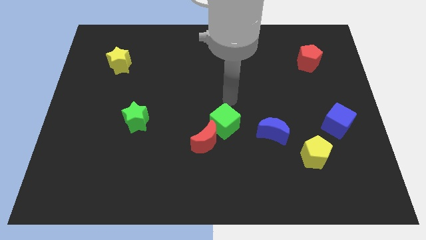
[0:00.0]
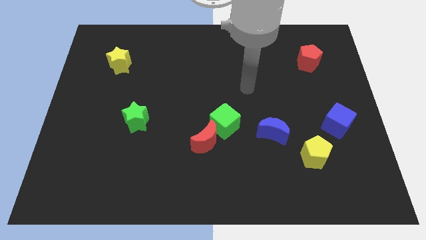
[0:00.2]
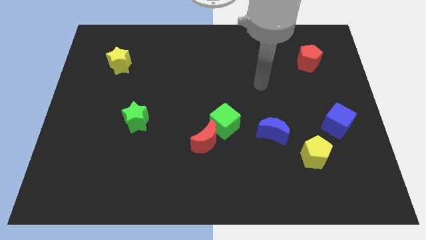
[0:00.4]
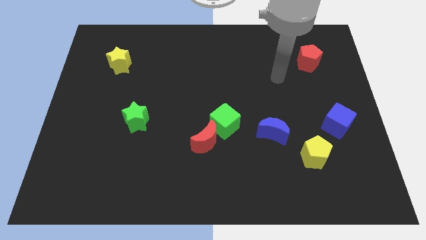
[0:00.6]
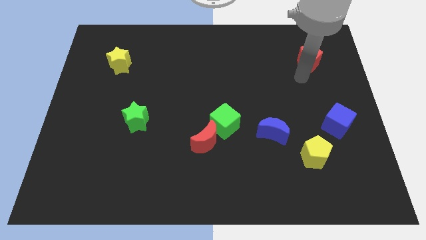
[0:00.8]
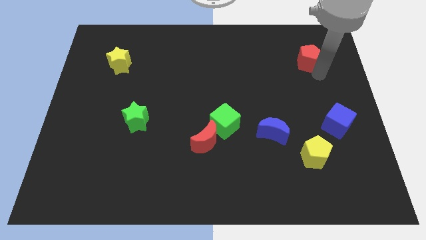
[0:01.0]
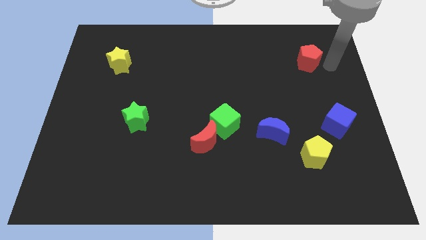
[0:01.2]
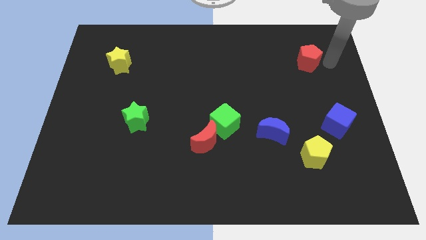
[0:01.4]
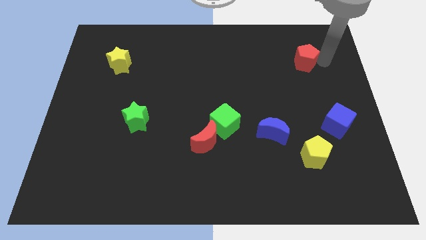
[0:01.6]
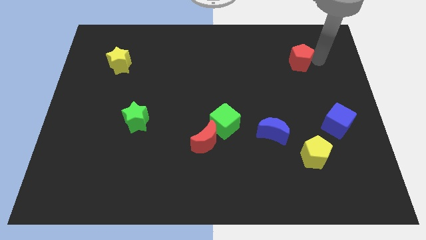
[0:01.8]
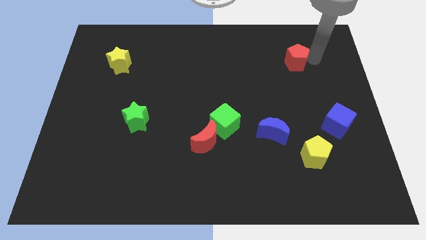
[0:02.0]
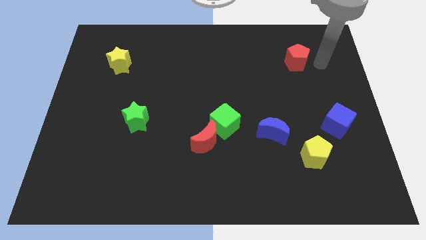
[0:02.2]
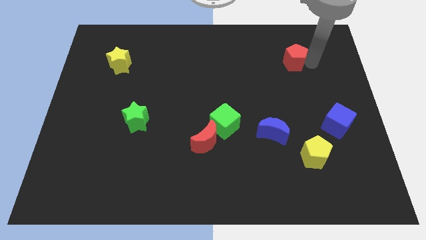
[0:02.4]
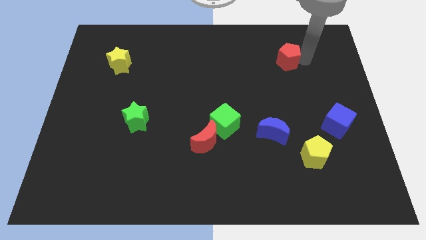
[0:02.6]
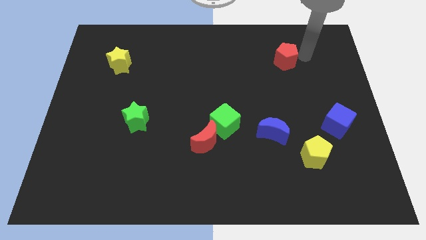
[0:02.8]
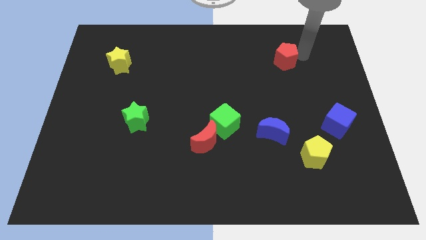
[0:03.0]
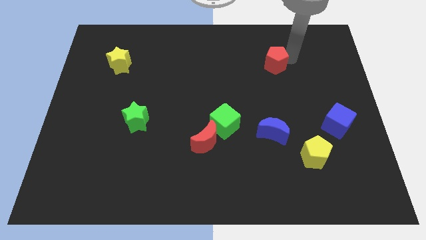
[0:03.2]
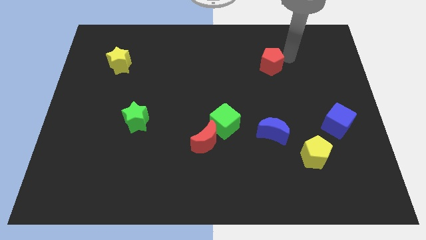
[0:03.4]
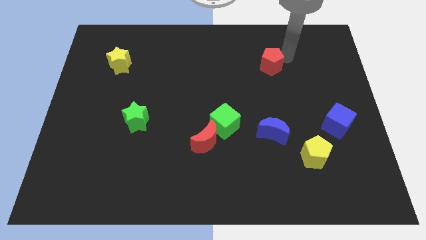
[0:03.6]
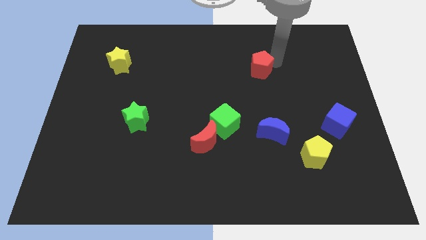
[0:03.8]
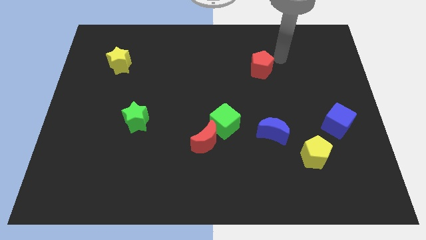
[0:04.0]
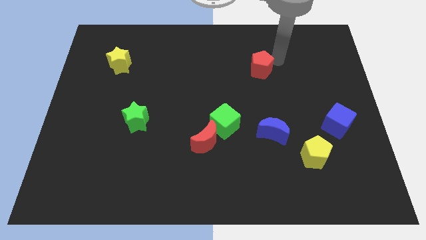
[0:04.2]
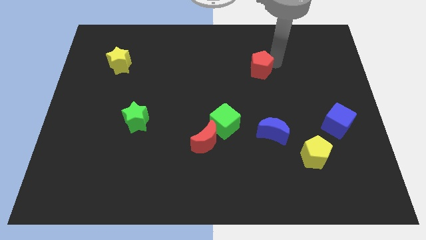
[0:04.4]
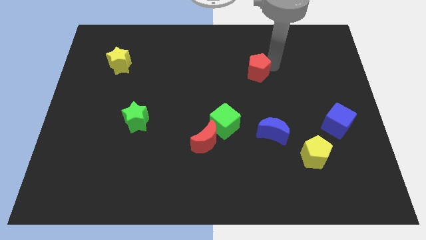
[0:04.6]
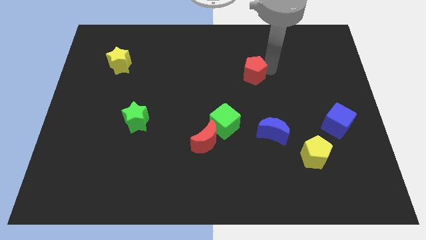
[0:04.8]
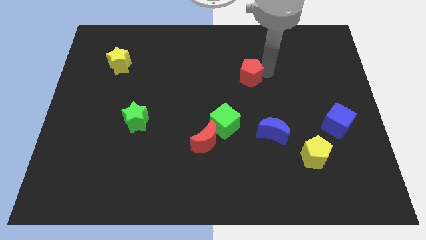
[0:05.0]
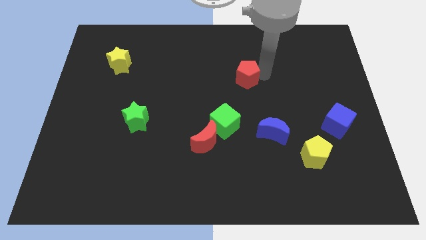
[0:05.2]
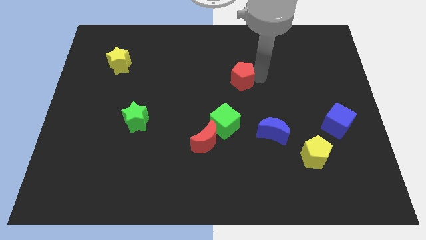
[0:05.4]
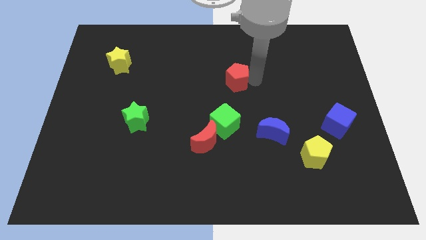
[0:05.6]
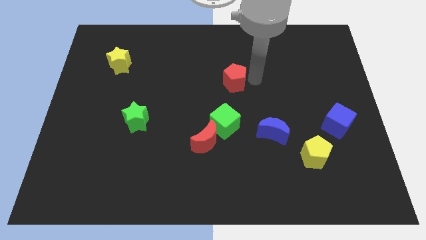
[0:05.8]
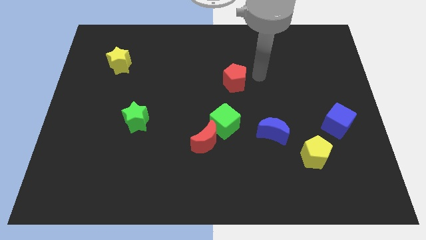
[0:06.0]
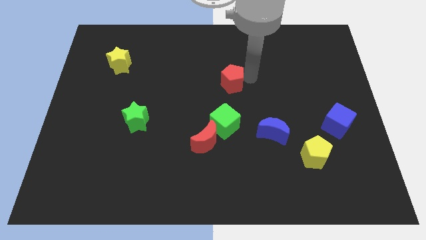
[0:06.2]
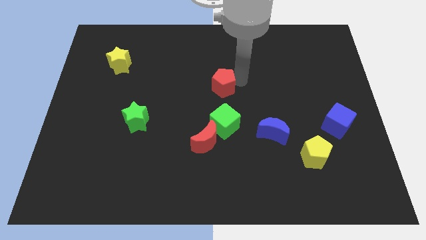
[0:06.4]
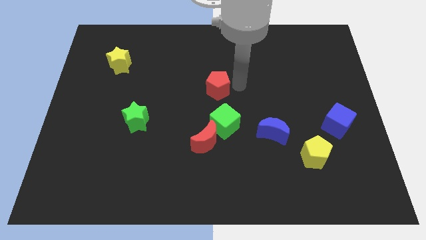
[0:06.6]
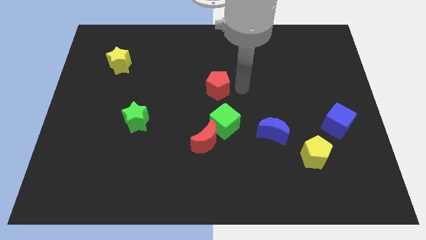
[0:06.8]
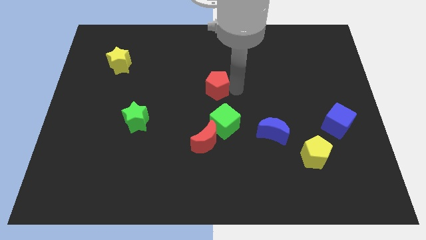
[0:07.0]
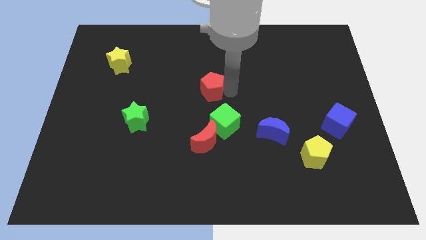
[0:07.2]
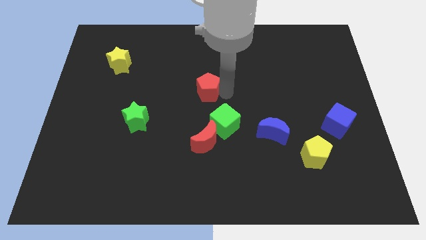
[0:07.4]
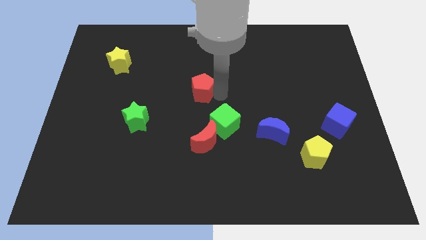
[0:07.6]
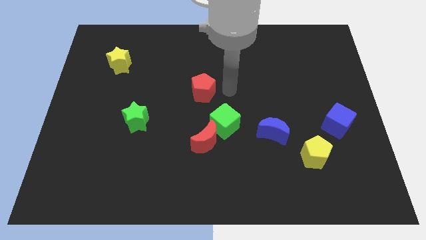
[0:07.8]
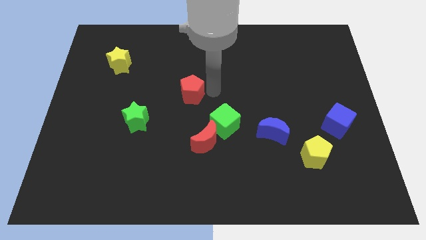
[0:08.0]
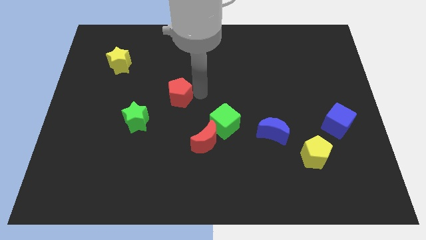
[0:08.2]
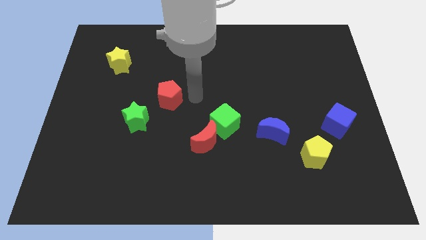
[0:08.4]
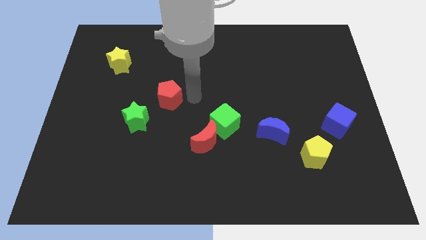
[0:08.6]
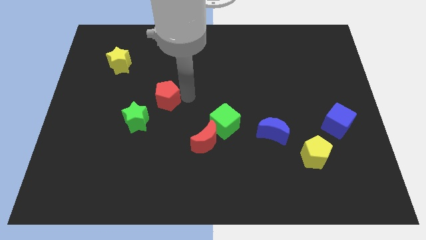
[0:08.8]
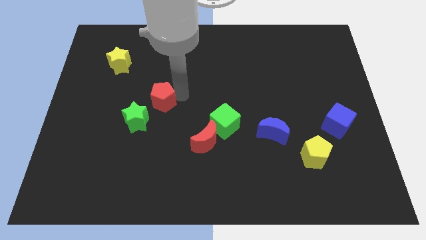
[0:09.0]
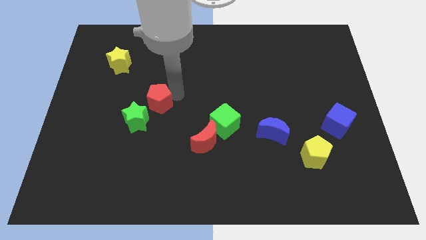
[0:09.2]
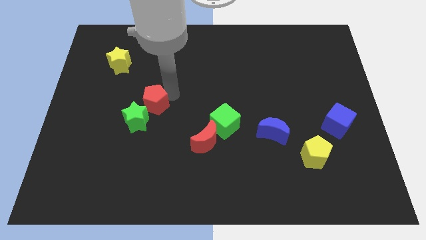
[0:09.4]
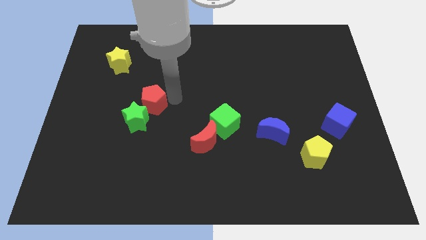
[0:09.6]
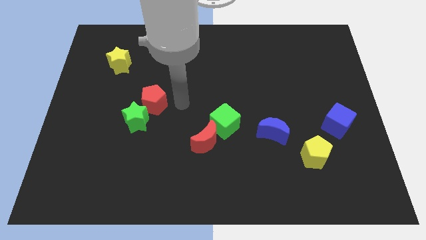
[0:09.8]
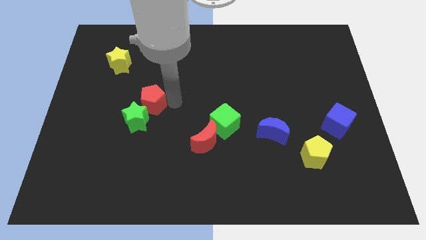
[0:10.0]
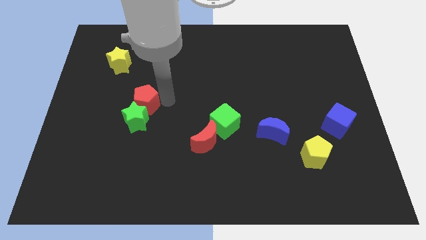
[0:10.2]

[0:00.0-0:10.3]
push the red pentagon to the top left of the green star

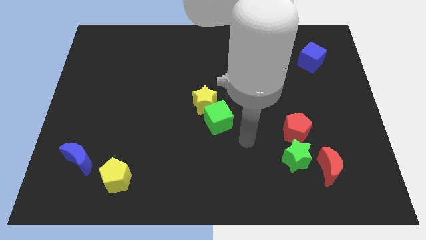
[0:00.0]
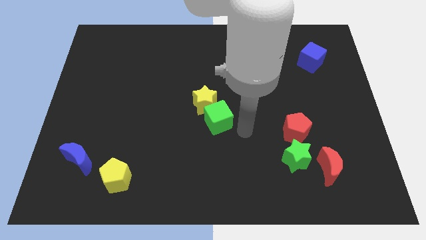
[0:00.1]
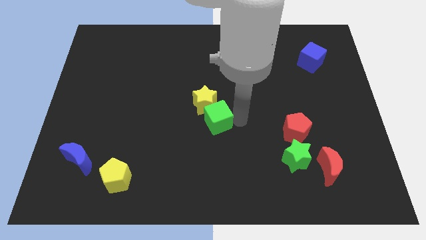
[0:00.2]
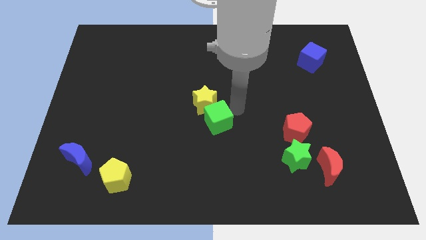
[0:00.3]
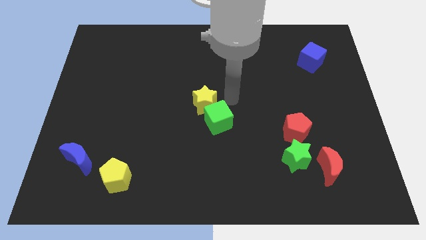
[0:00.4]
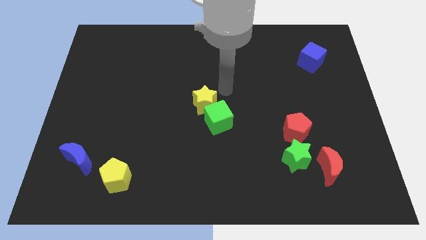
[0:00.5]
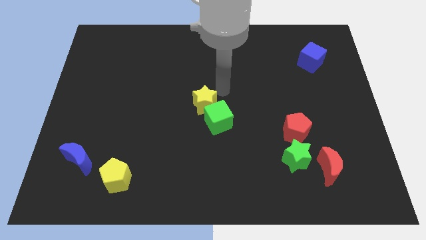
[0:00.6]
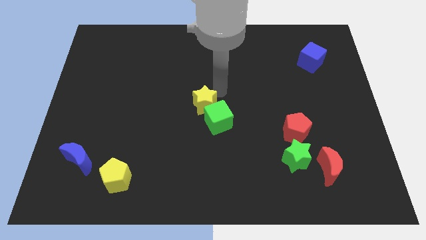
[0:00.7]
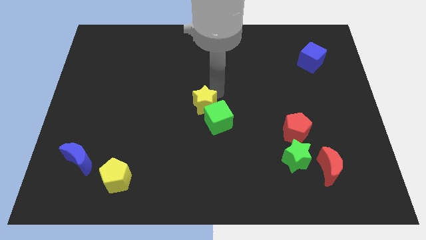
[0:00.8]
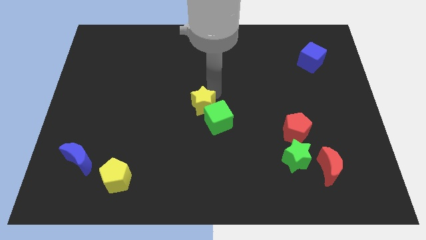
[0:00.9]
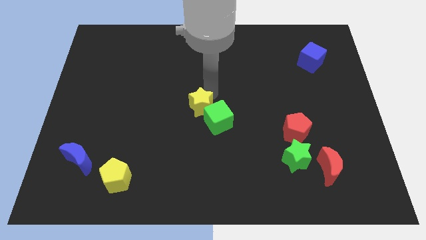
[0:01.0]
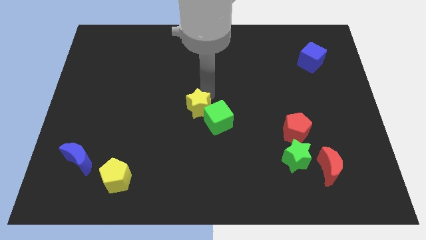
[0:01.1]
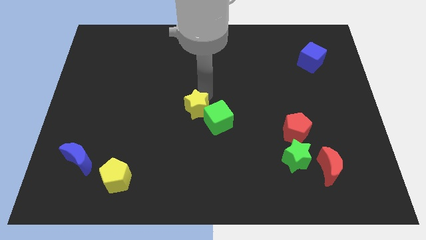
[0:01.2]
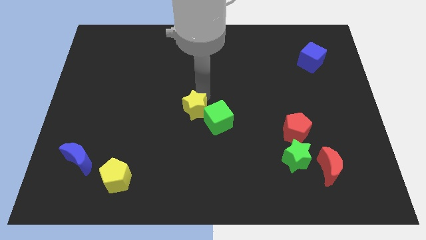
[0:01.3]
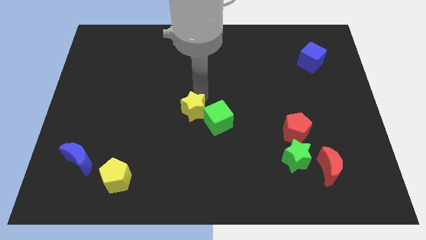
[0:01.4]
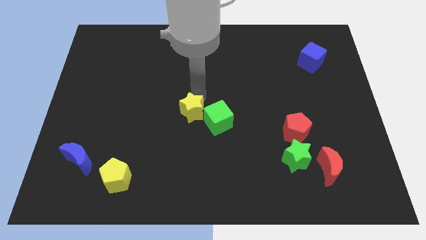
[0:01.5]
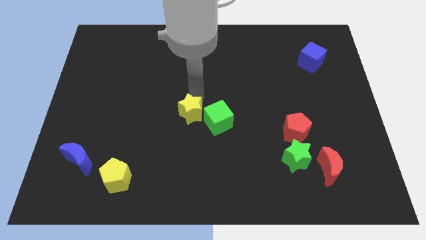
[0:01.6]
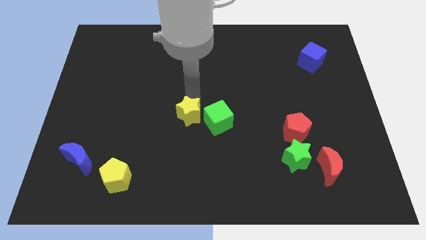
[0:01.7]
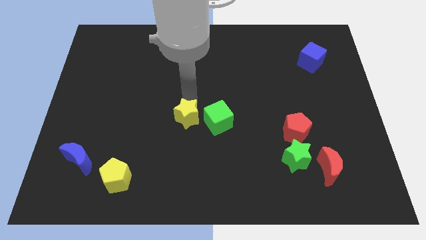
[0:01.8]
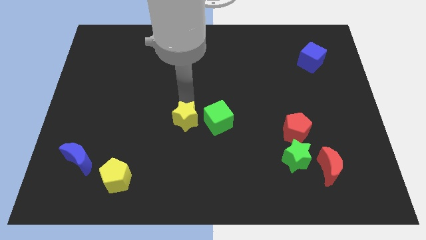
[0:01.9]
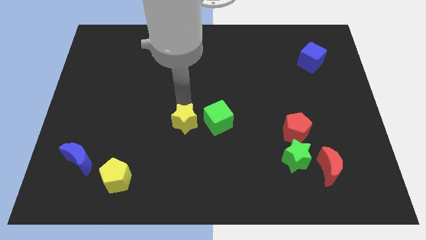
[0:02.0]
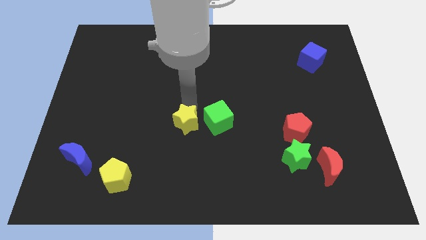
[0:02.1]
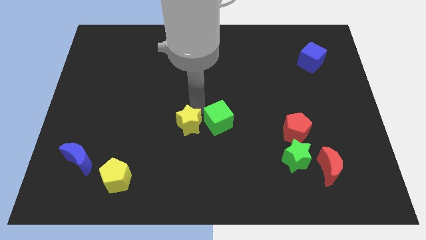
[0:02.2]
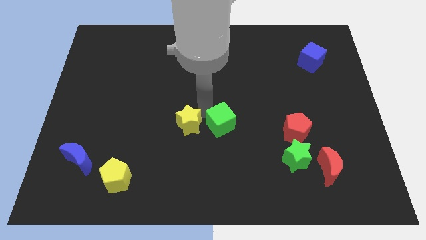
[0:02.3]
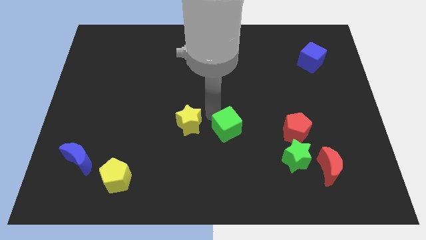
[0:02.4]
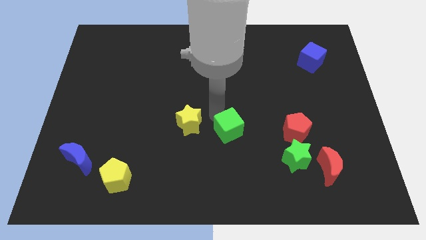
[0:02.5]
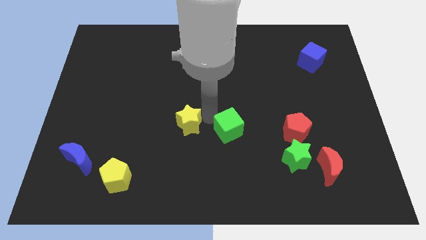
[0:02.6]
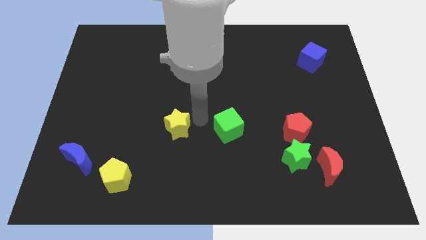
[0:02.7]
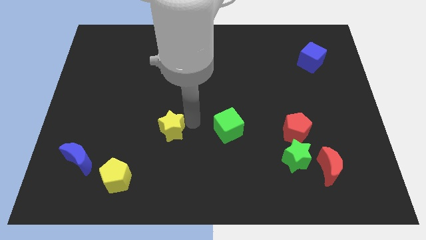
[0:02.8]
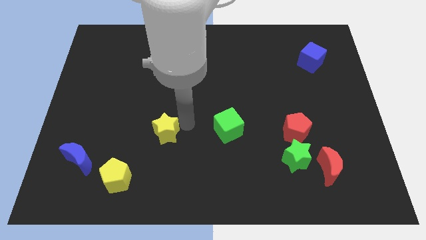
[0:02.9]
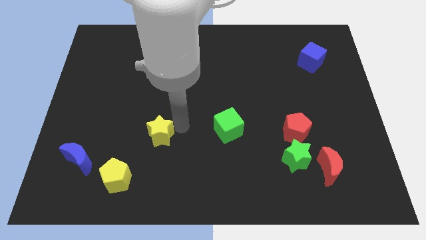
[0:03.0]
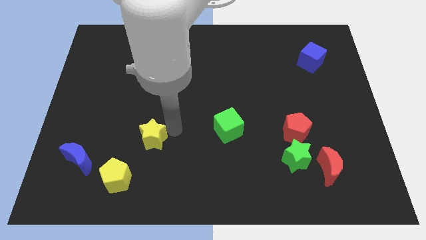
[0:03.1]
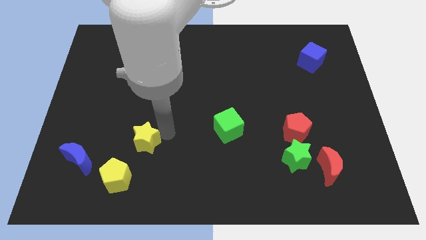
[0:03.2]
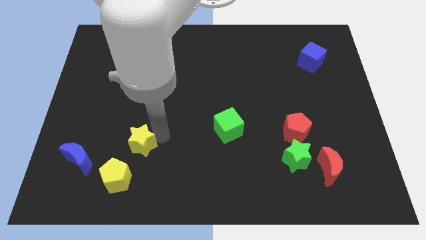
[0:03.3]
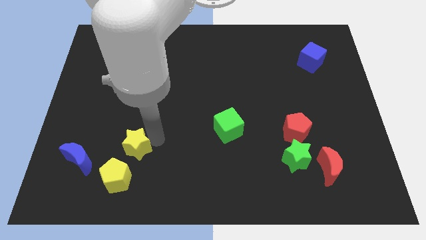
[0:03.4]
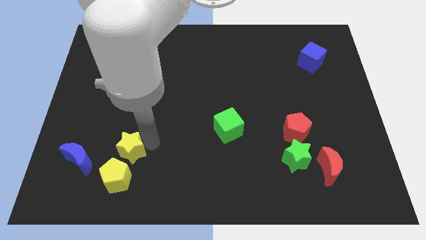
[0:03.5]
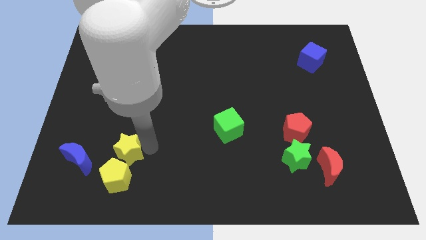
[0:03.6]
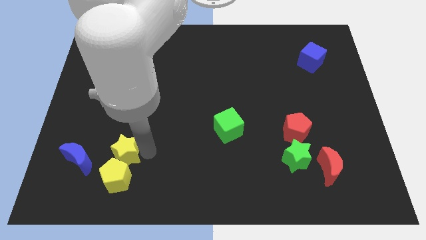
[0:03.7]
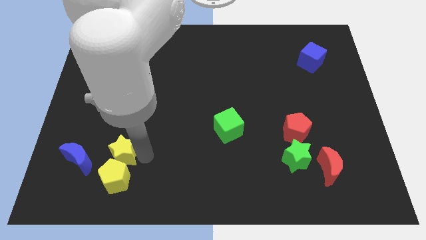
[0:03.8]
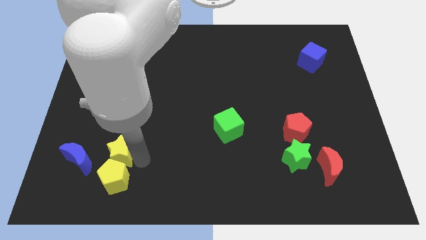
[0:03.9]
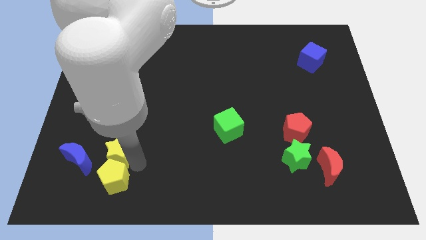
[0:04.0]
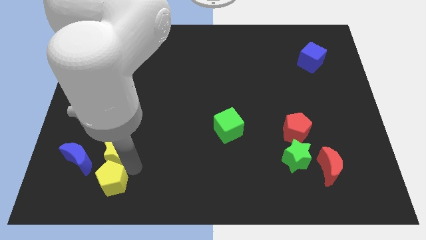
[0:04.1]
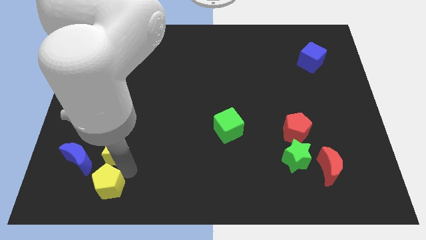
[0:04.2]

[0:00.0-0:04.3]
slide the yellow star to the top right of the blue moon
